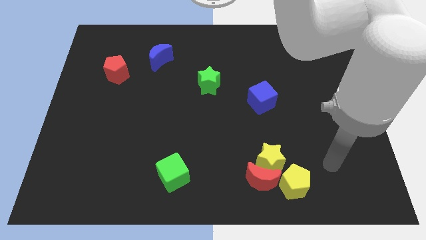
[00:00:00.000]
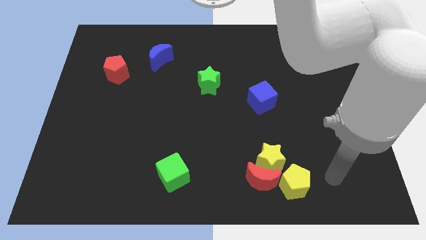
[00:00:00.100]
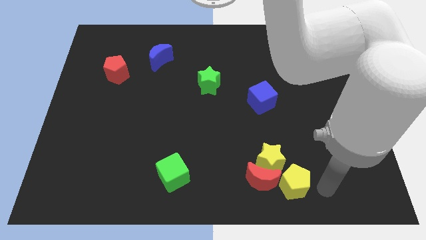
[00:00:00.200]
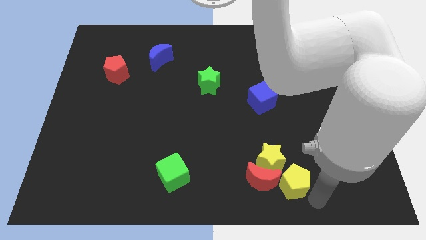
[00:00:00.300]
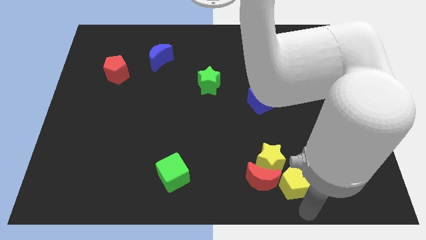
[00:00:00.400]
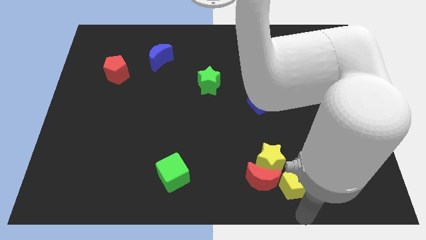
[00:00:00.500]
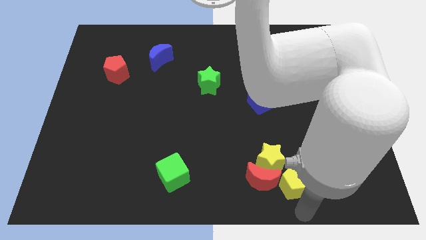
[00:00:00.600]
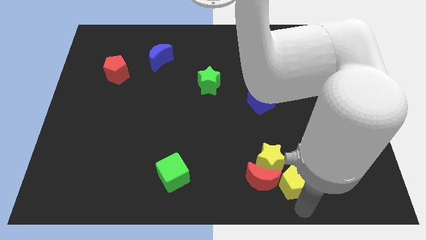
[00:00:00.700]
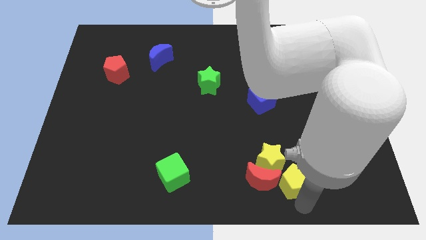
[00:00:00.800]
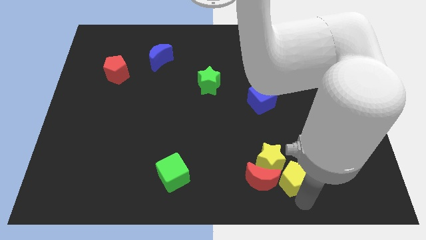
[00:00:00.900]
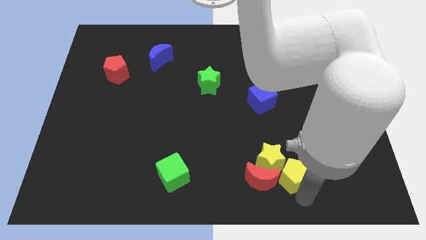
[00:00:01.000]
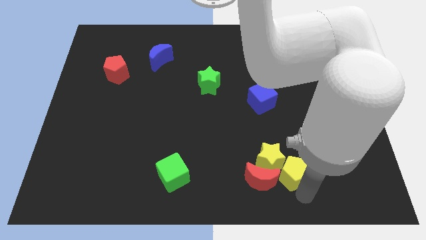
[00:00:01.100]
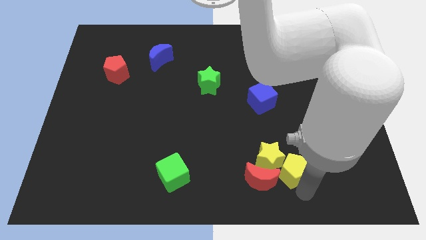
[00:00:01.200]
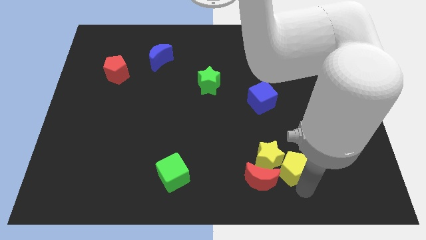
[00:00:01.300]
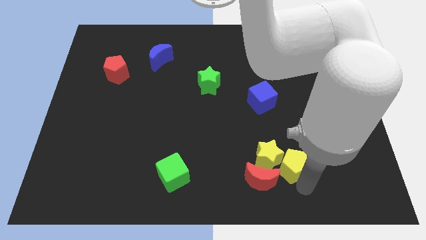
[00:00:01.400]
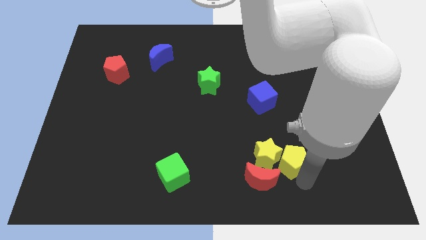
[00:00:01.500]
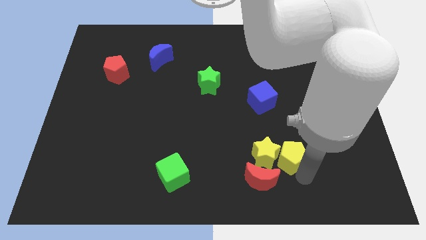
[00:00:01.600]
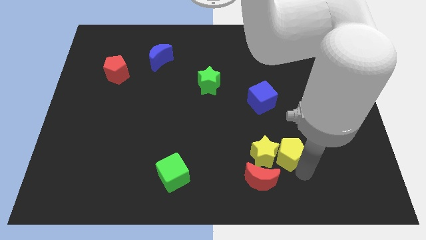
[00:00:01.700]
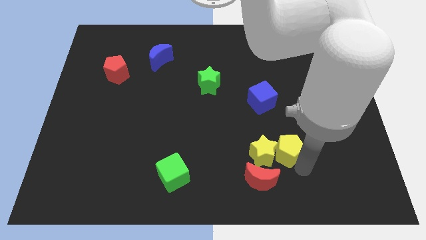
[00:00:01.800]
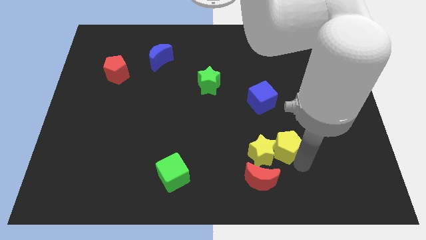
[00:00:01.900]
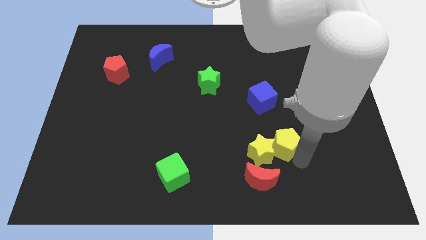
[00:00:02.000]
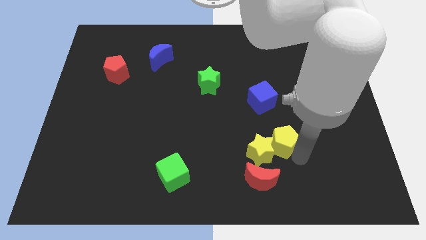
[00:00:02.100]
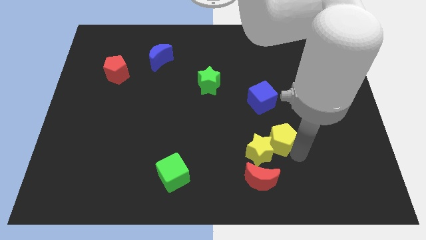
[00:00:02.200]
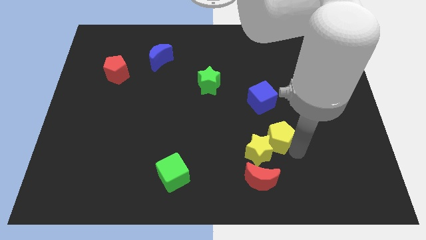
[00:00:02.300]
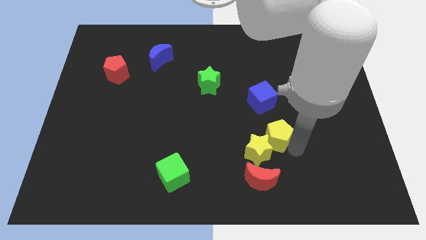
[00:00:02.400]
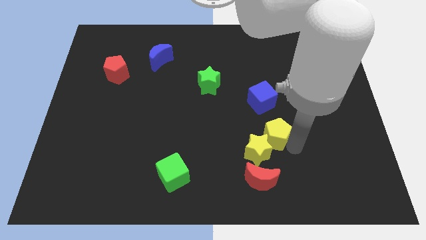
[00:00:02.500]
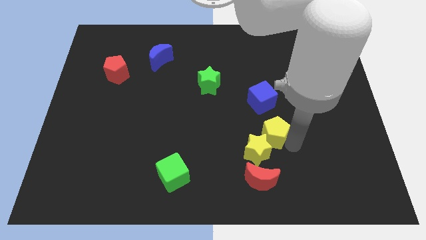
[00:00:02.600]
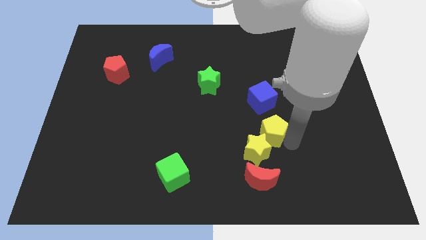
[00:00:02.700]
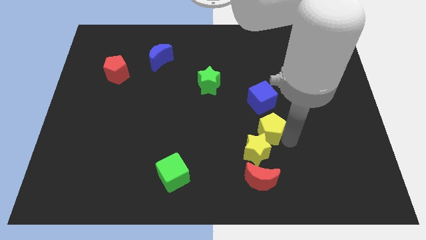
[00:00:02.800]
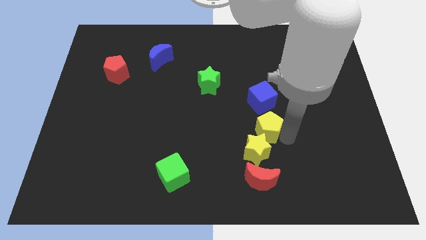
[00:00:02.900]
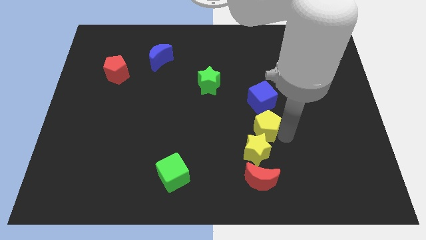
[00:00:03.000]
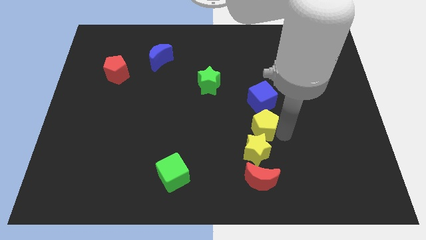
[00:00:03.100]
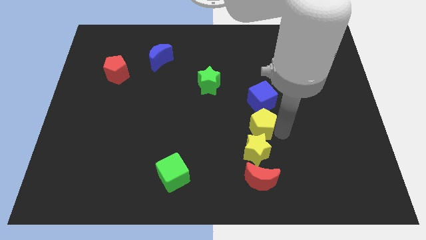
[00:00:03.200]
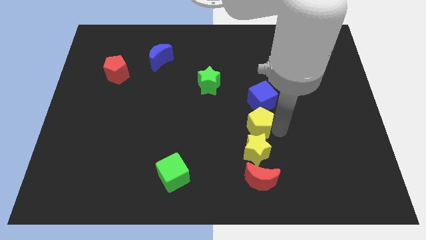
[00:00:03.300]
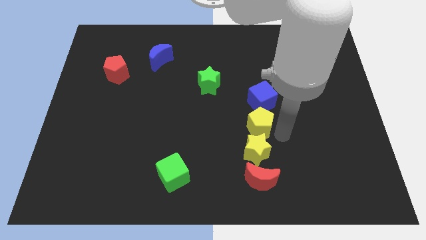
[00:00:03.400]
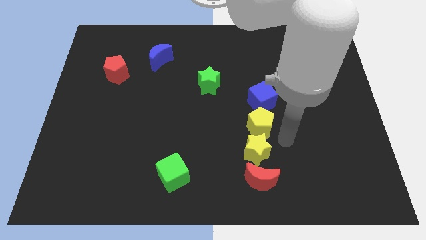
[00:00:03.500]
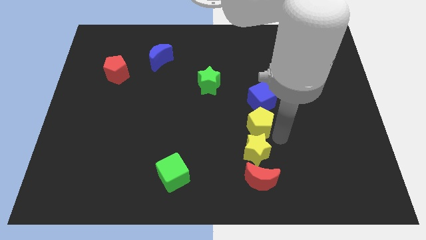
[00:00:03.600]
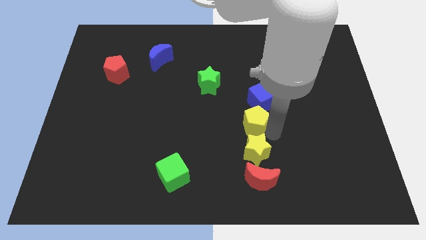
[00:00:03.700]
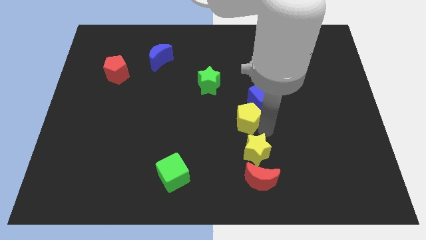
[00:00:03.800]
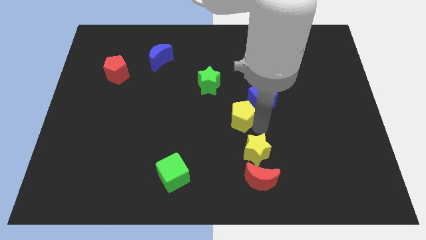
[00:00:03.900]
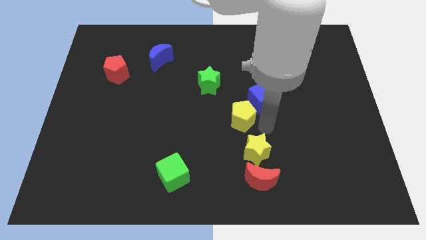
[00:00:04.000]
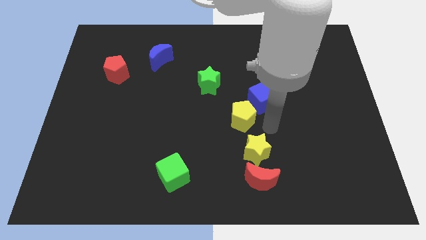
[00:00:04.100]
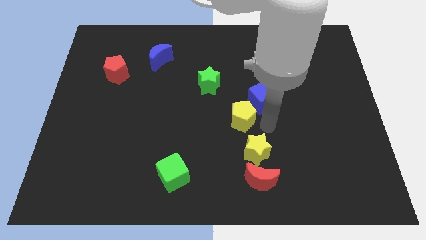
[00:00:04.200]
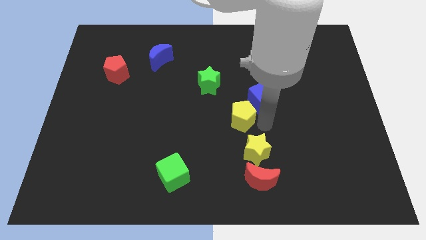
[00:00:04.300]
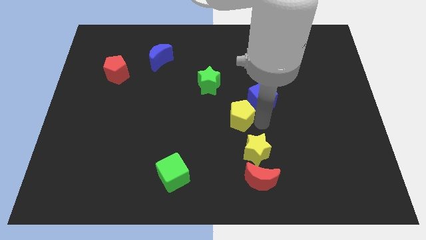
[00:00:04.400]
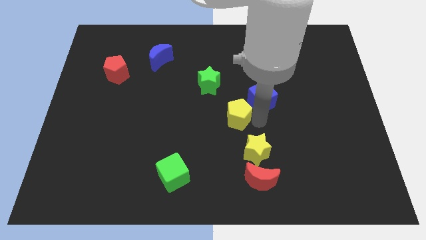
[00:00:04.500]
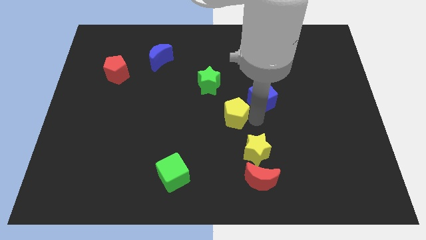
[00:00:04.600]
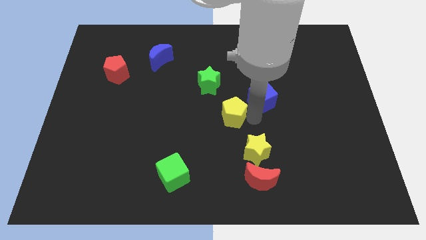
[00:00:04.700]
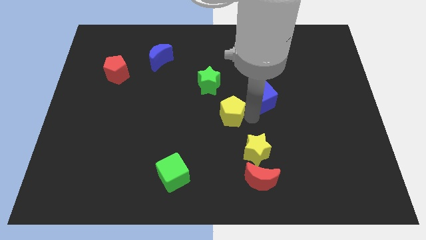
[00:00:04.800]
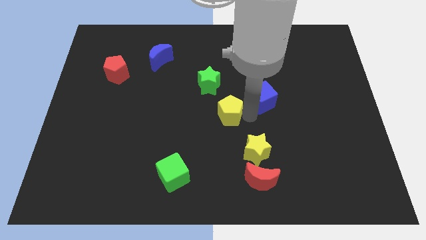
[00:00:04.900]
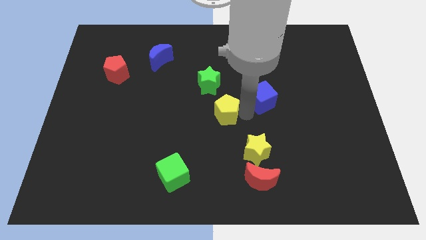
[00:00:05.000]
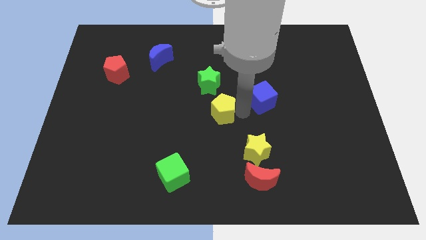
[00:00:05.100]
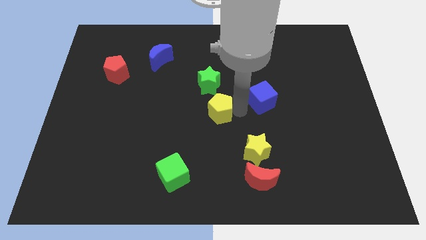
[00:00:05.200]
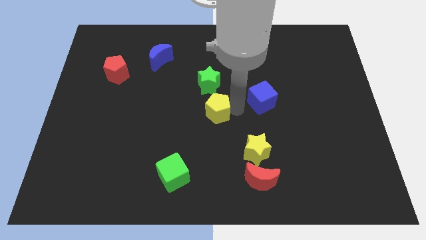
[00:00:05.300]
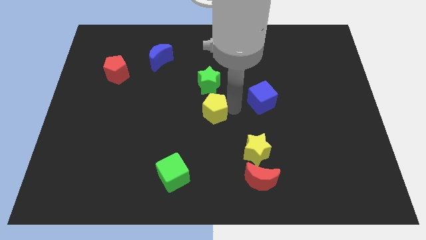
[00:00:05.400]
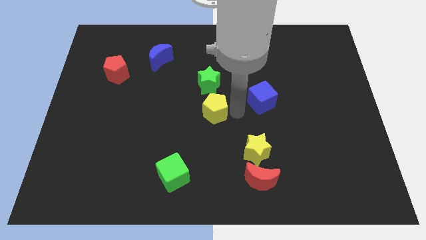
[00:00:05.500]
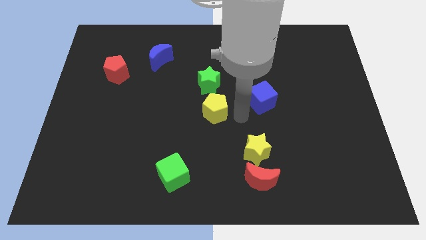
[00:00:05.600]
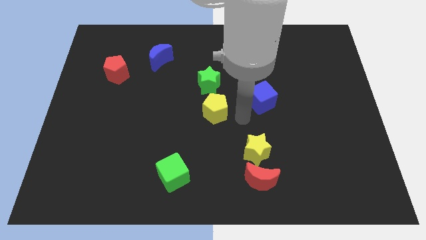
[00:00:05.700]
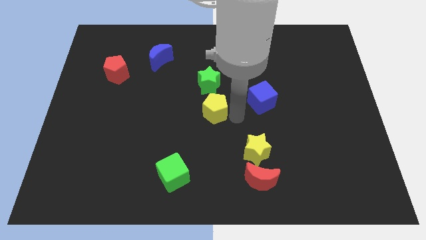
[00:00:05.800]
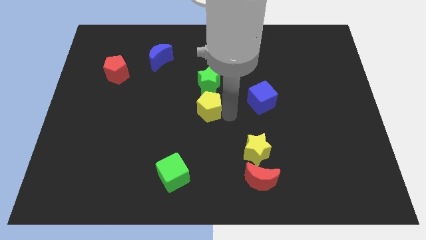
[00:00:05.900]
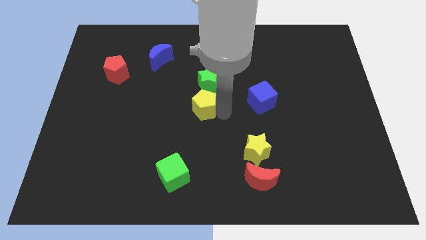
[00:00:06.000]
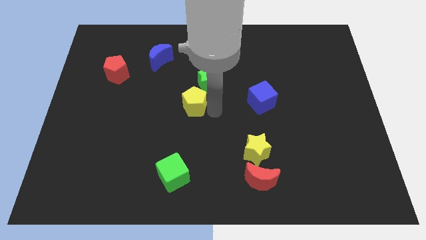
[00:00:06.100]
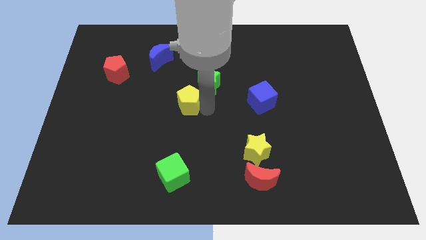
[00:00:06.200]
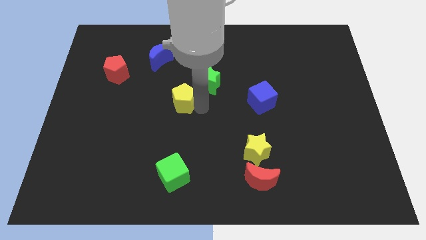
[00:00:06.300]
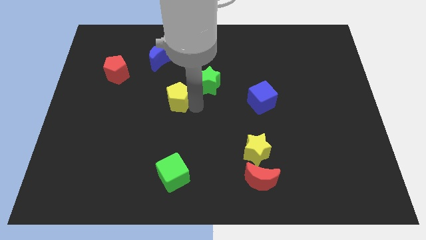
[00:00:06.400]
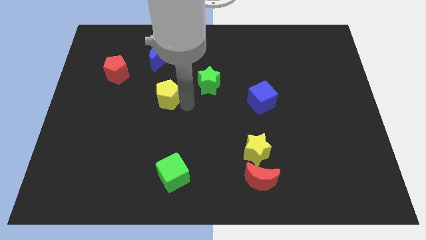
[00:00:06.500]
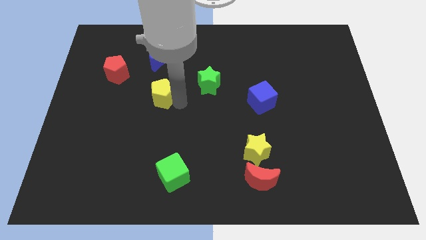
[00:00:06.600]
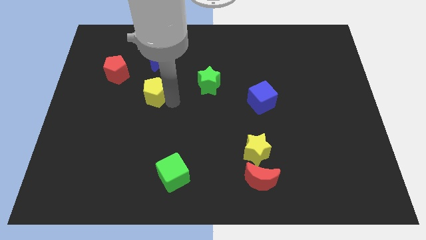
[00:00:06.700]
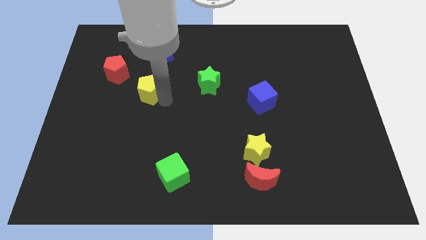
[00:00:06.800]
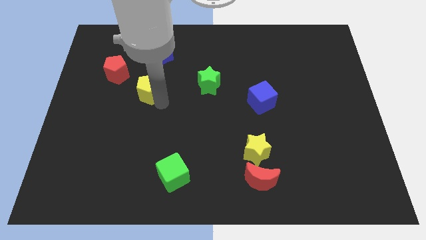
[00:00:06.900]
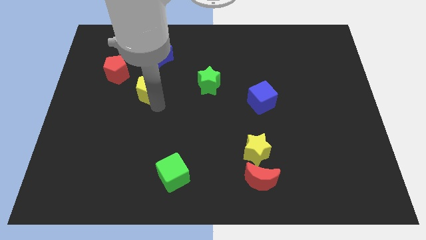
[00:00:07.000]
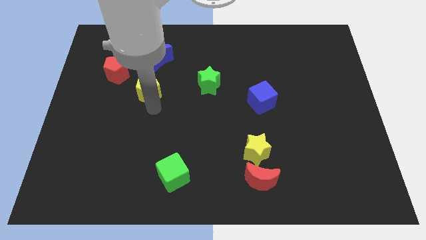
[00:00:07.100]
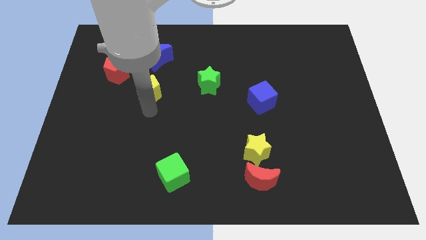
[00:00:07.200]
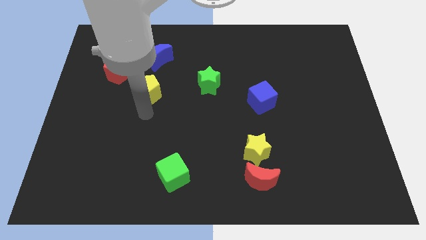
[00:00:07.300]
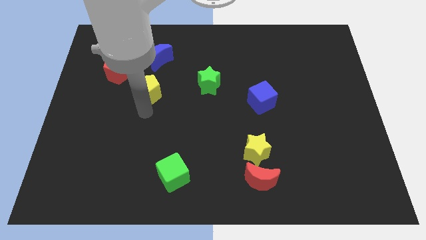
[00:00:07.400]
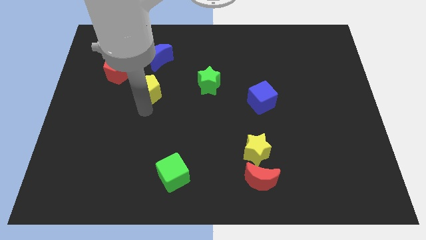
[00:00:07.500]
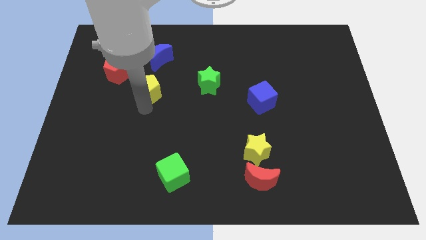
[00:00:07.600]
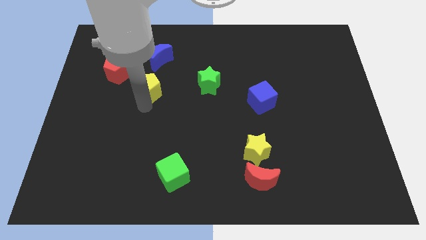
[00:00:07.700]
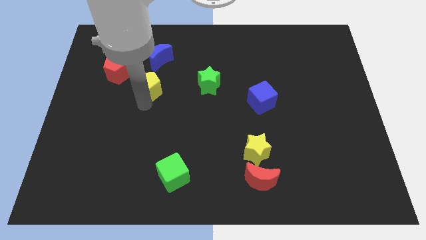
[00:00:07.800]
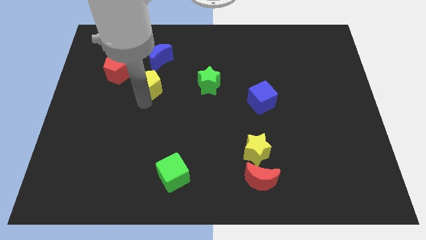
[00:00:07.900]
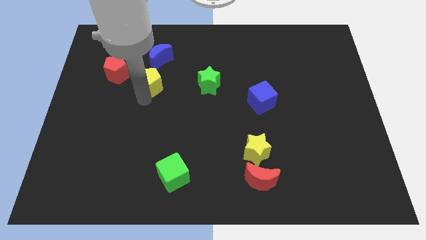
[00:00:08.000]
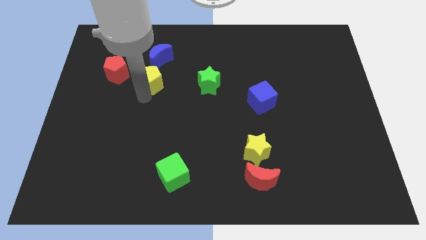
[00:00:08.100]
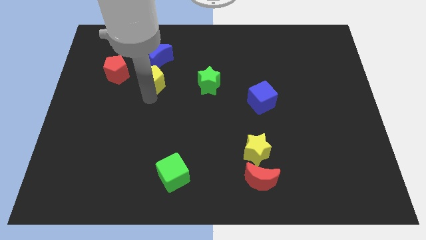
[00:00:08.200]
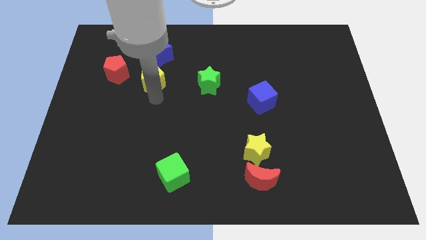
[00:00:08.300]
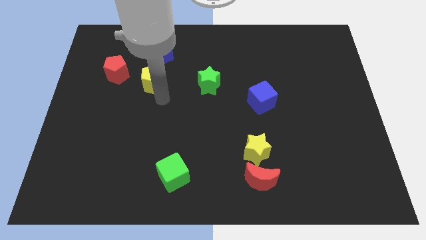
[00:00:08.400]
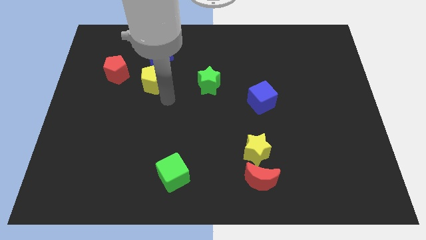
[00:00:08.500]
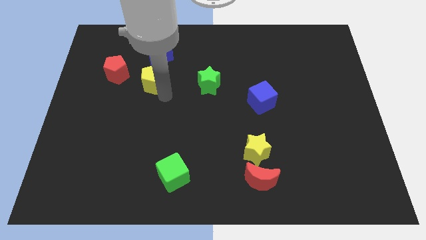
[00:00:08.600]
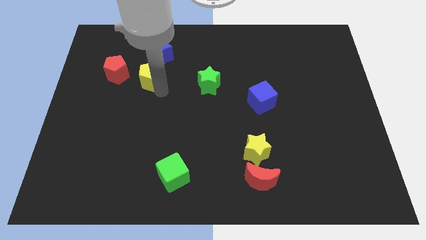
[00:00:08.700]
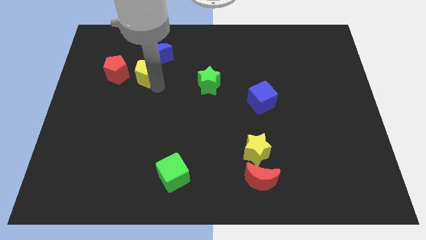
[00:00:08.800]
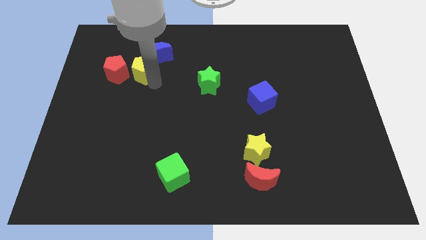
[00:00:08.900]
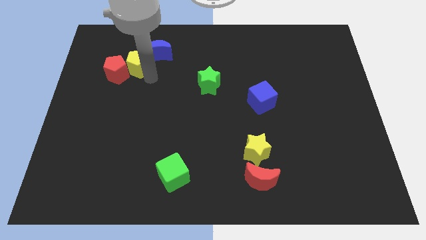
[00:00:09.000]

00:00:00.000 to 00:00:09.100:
slide the yellow pentagon to the left side of the blue moon
